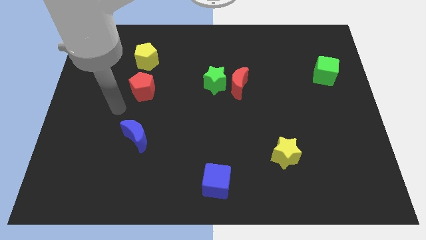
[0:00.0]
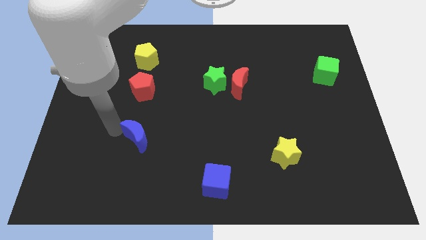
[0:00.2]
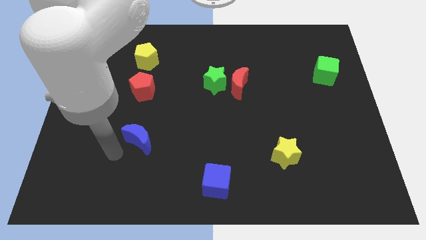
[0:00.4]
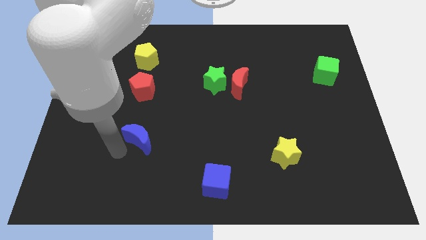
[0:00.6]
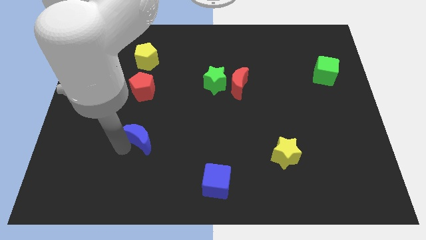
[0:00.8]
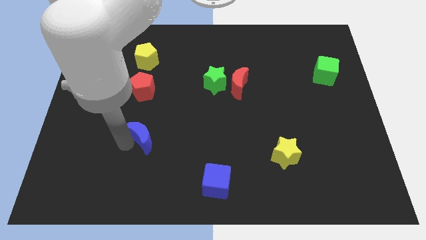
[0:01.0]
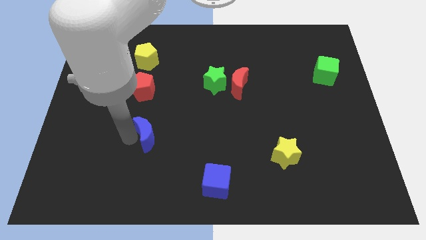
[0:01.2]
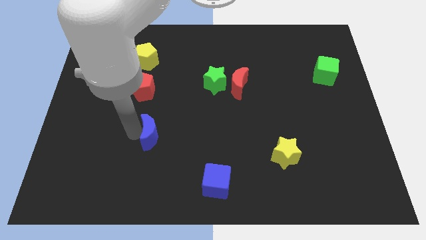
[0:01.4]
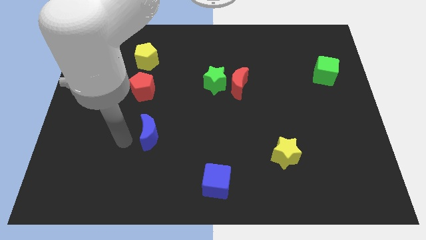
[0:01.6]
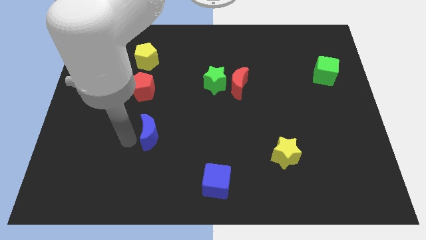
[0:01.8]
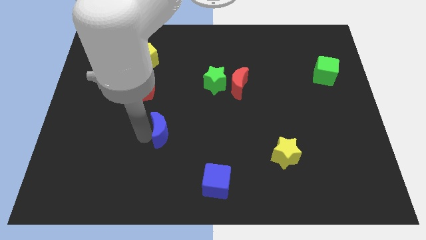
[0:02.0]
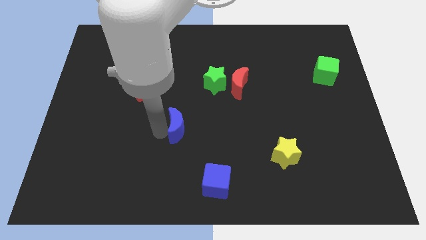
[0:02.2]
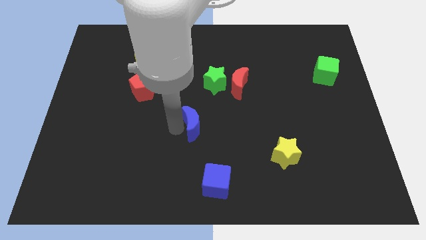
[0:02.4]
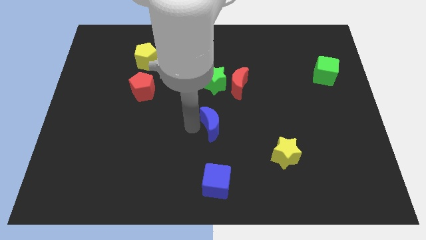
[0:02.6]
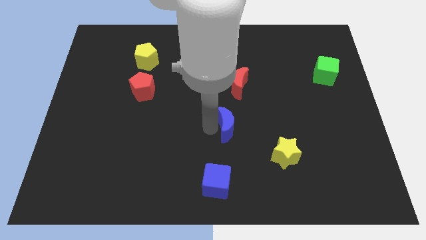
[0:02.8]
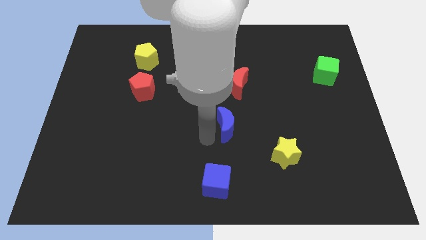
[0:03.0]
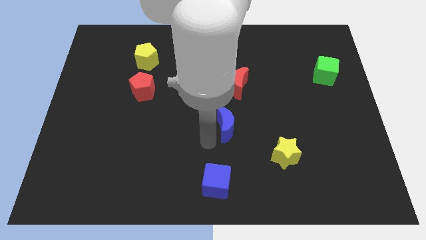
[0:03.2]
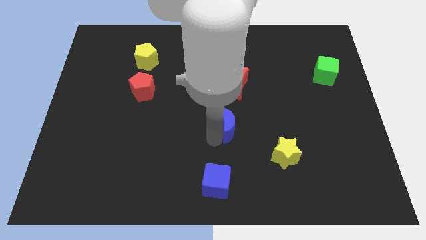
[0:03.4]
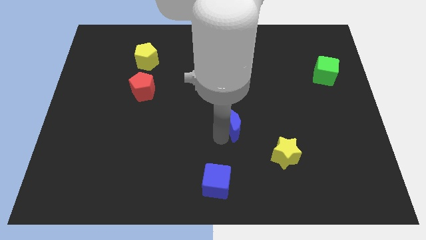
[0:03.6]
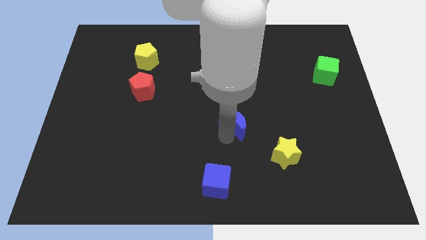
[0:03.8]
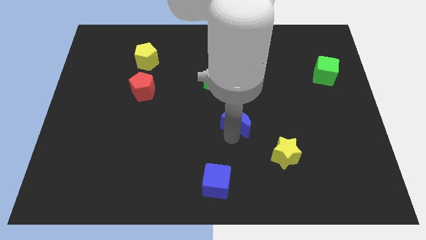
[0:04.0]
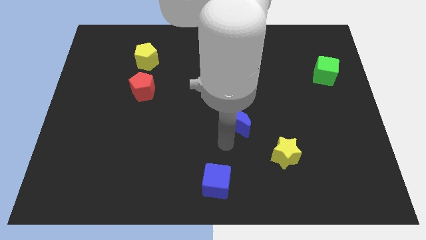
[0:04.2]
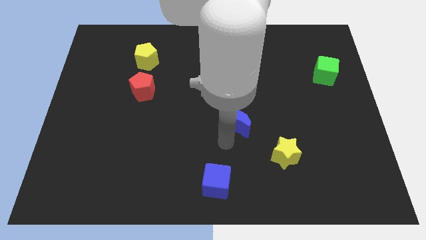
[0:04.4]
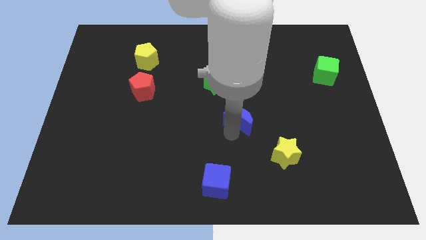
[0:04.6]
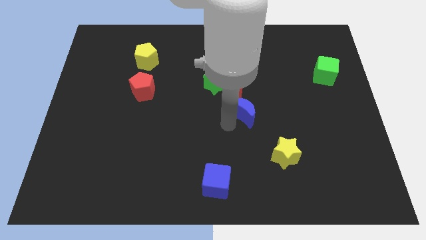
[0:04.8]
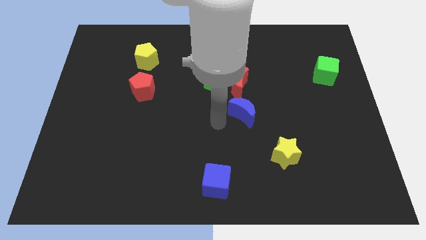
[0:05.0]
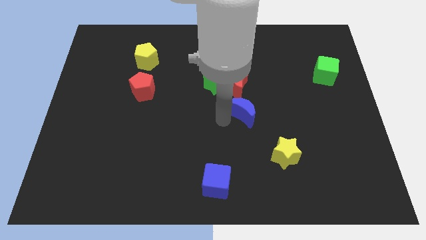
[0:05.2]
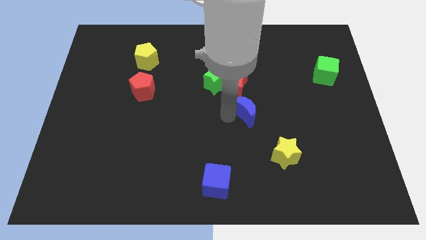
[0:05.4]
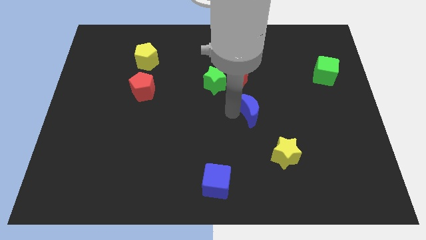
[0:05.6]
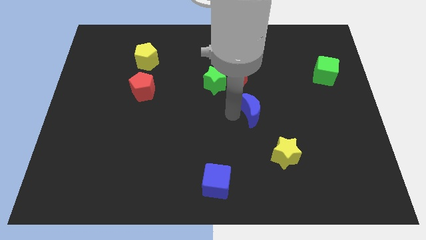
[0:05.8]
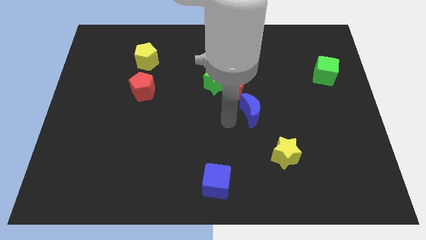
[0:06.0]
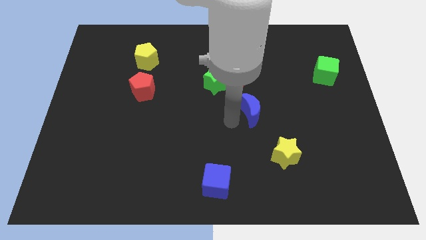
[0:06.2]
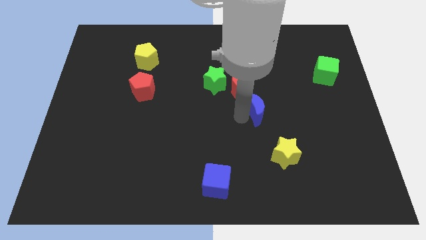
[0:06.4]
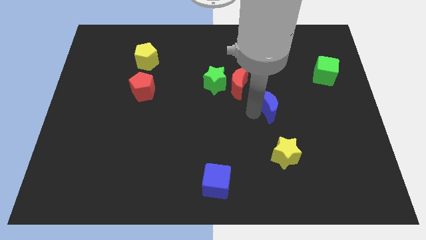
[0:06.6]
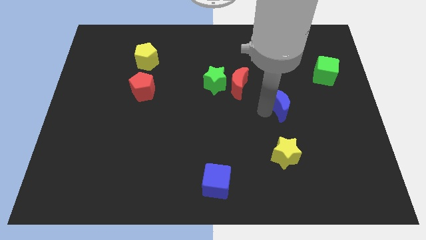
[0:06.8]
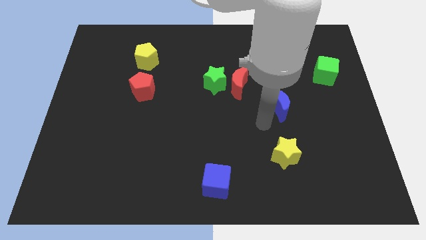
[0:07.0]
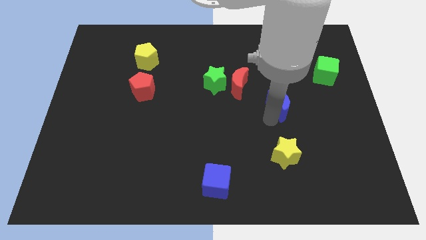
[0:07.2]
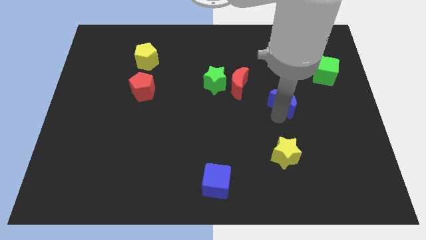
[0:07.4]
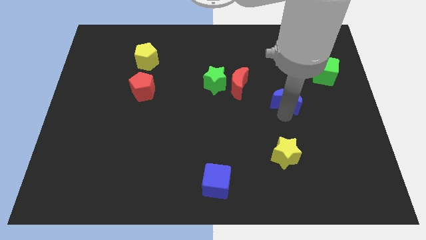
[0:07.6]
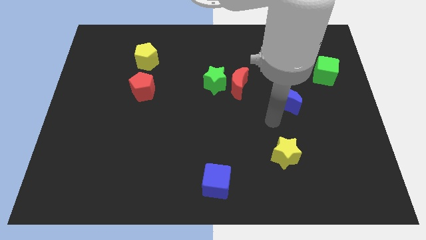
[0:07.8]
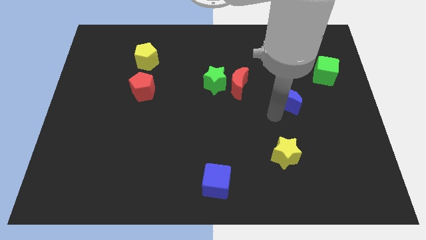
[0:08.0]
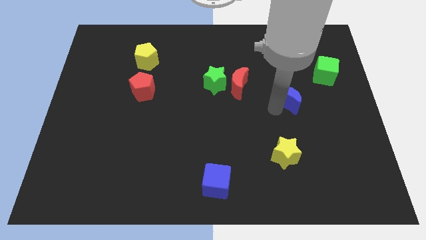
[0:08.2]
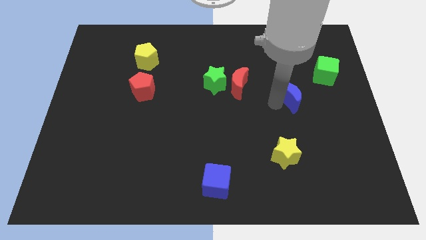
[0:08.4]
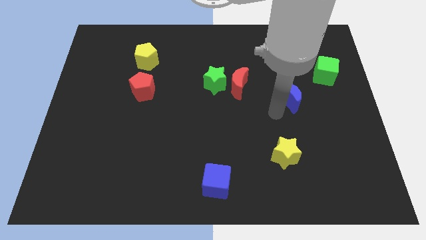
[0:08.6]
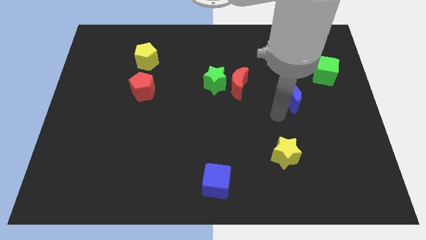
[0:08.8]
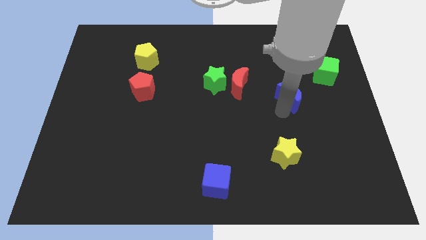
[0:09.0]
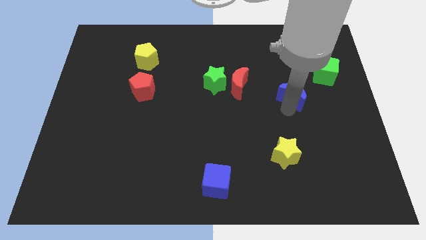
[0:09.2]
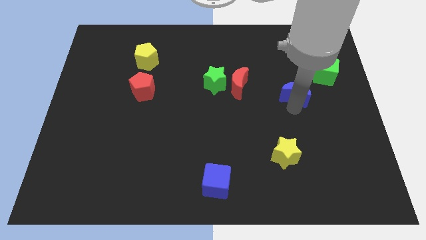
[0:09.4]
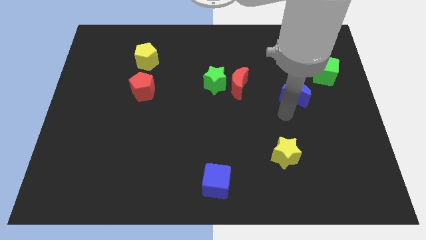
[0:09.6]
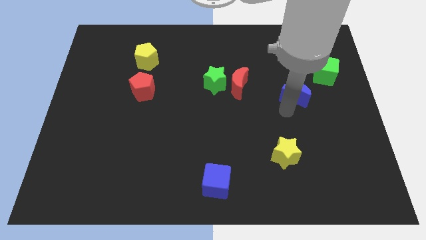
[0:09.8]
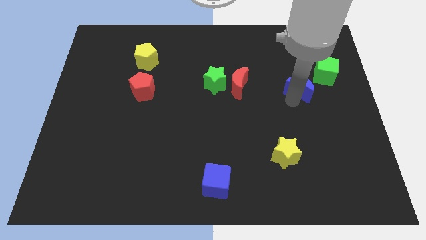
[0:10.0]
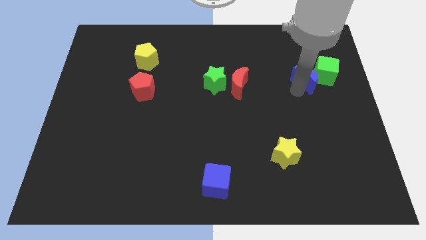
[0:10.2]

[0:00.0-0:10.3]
move the blue moon next to the green cube

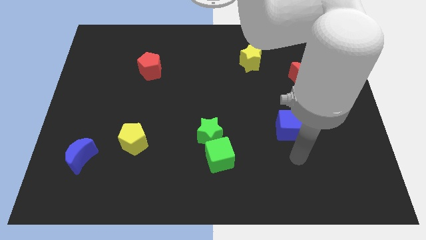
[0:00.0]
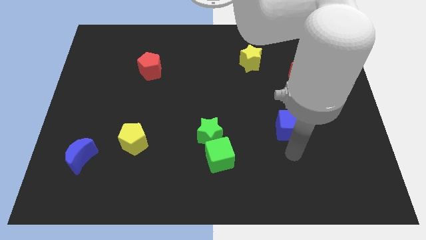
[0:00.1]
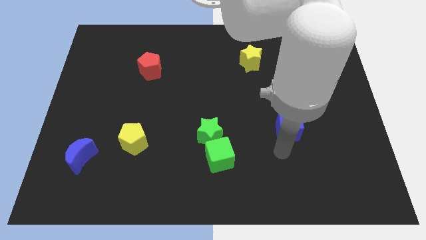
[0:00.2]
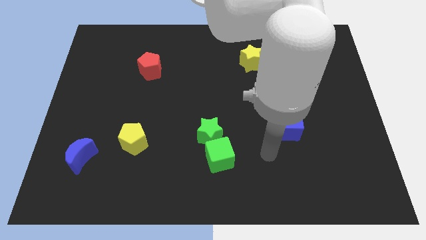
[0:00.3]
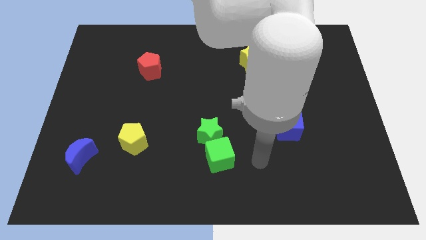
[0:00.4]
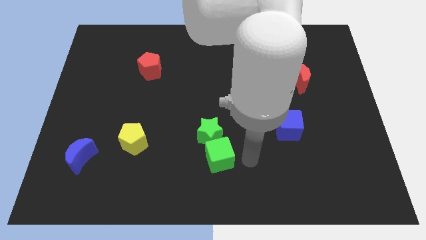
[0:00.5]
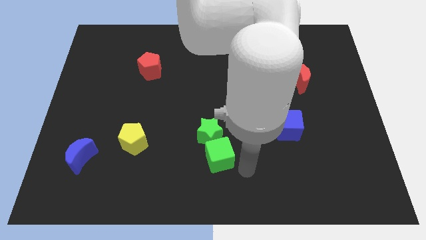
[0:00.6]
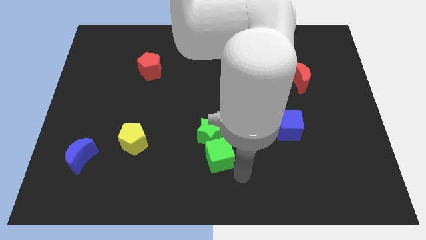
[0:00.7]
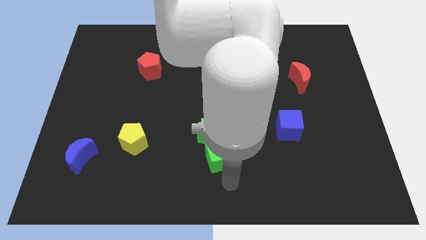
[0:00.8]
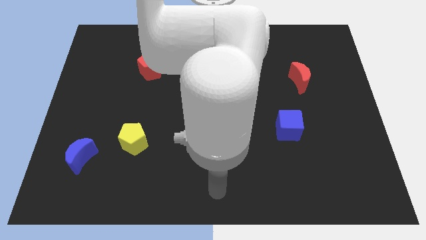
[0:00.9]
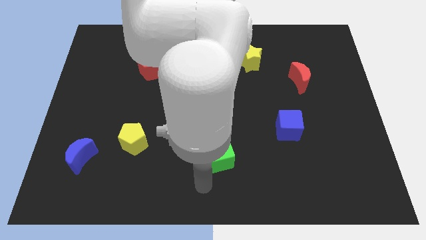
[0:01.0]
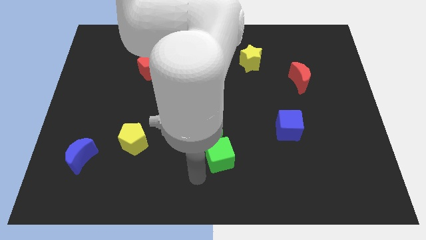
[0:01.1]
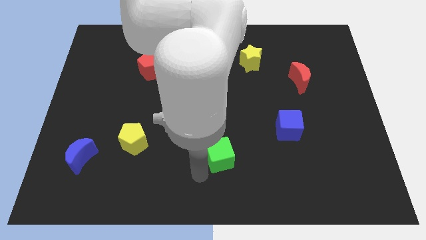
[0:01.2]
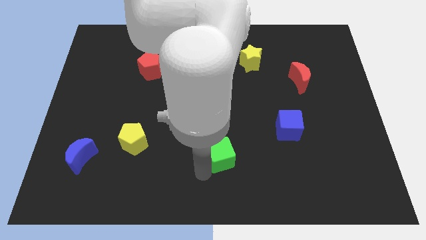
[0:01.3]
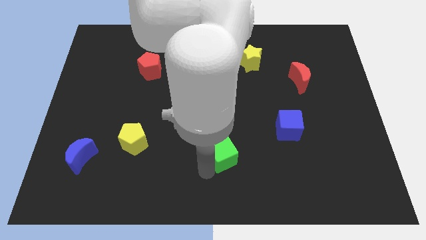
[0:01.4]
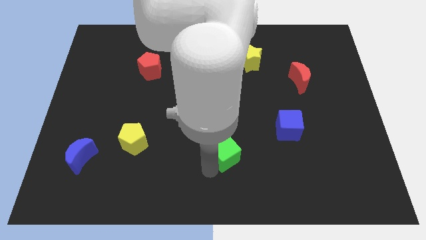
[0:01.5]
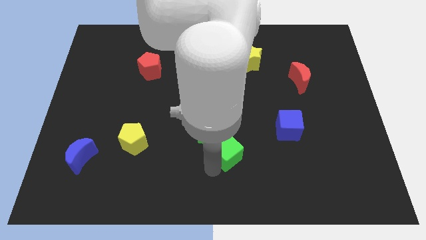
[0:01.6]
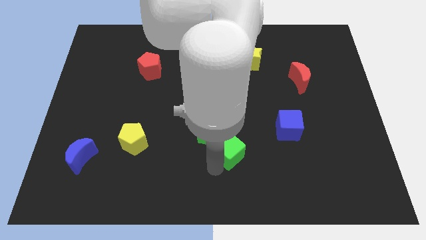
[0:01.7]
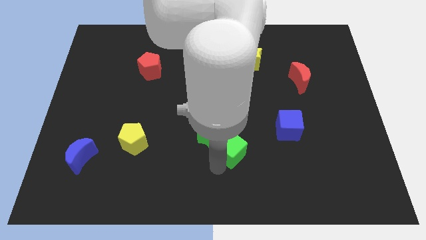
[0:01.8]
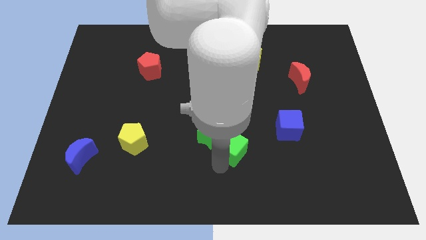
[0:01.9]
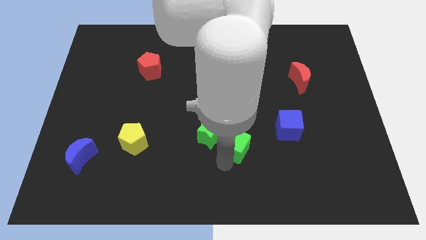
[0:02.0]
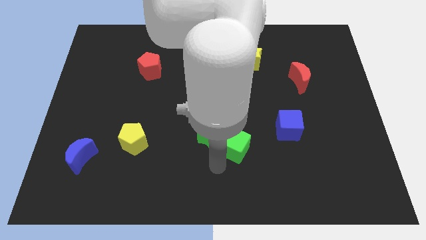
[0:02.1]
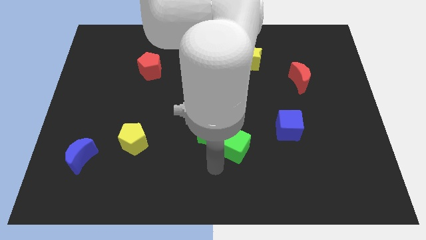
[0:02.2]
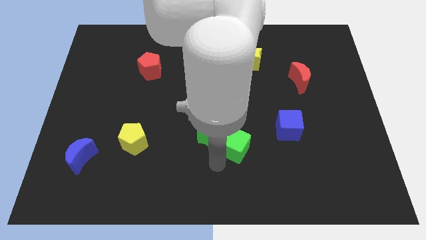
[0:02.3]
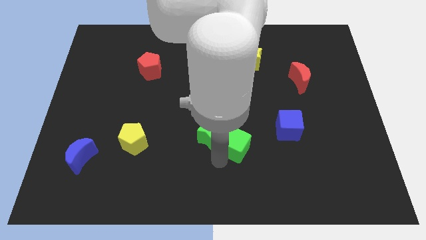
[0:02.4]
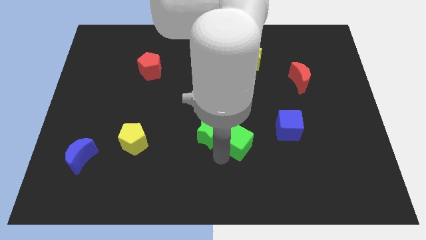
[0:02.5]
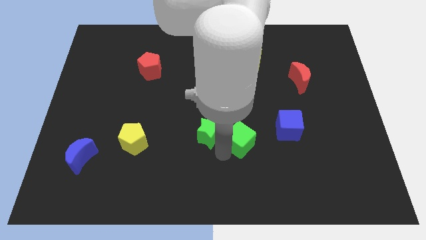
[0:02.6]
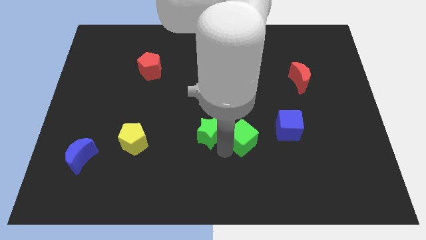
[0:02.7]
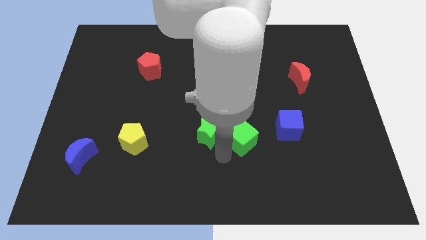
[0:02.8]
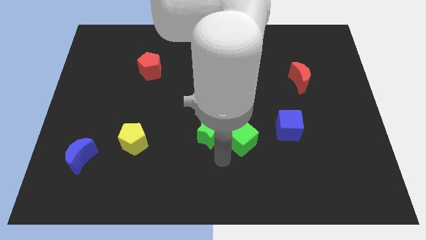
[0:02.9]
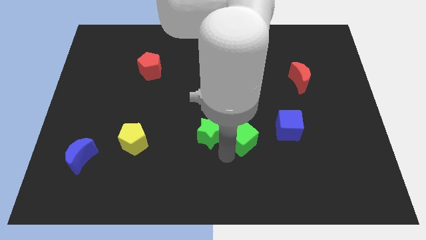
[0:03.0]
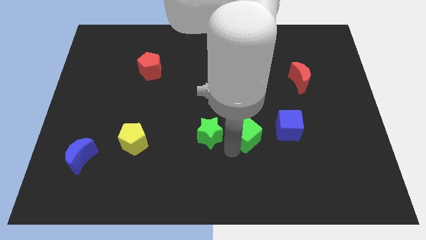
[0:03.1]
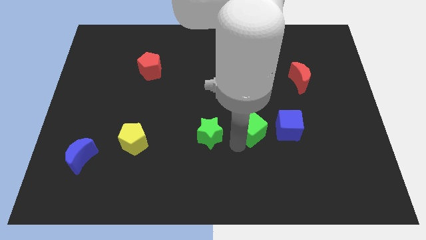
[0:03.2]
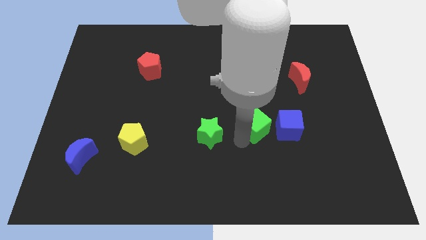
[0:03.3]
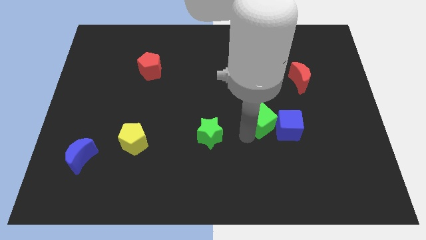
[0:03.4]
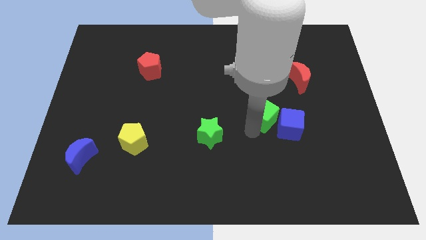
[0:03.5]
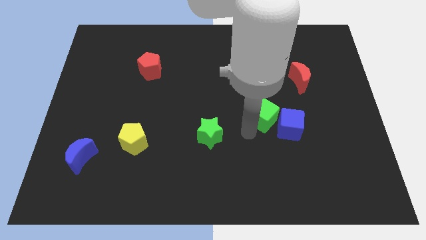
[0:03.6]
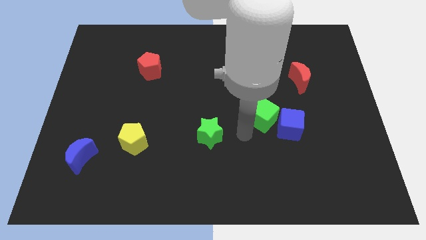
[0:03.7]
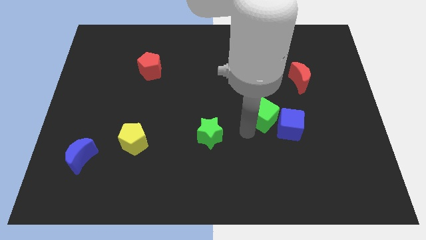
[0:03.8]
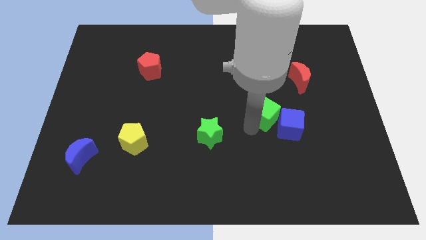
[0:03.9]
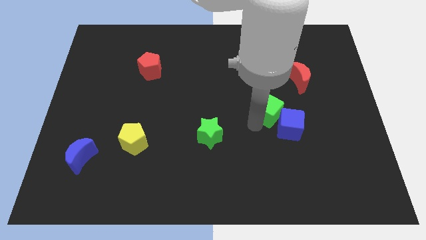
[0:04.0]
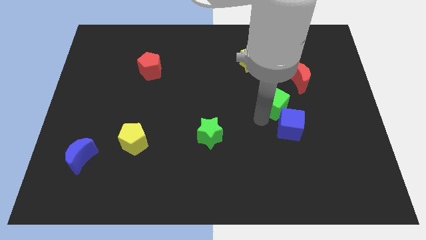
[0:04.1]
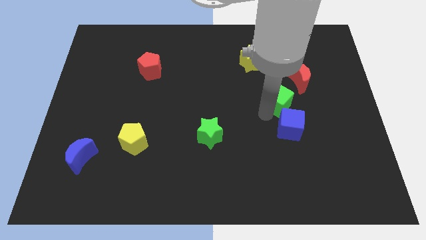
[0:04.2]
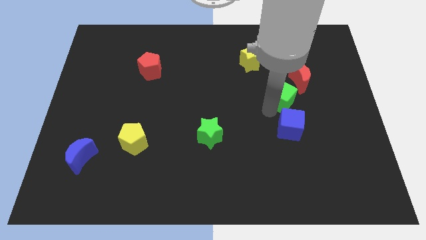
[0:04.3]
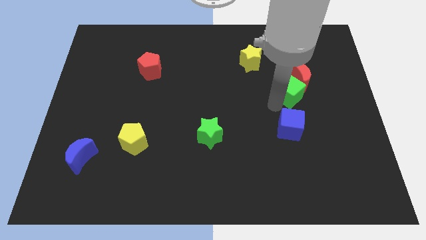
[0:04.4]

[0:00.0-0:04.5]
move the green cube to the red moon
